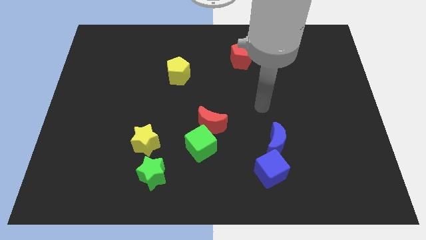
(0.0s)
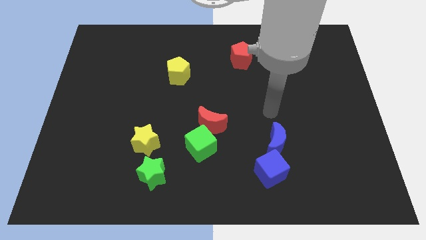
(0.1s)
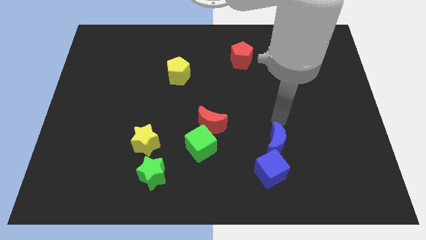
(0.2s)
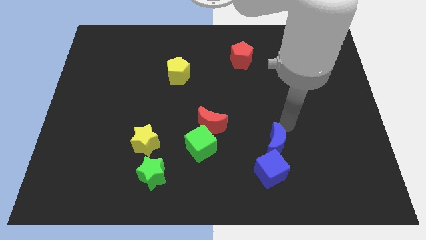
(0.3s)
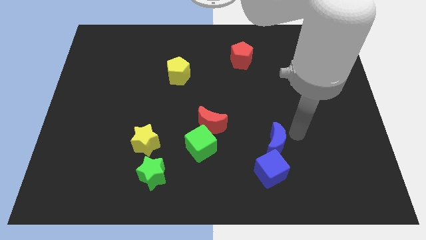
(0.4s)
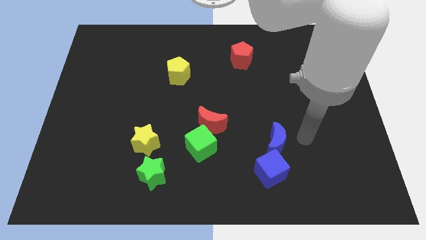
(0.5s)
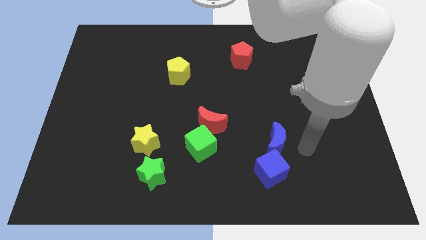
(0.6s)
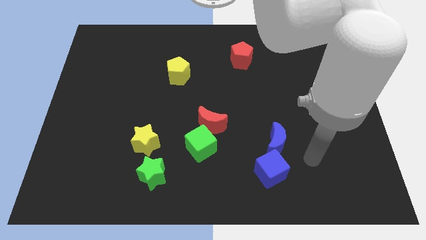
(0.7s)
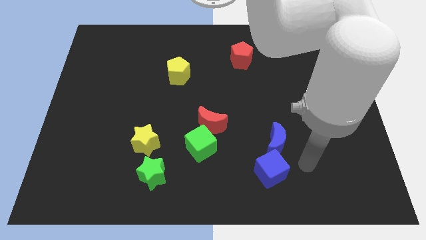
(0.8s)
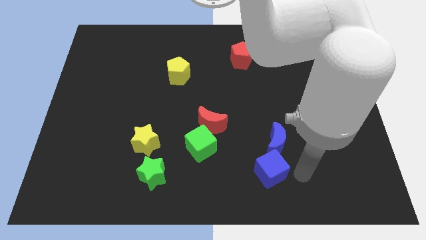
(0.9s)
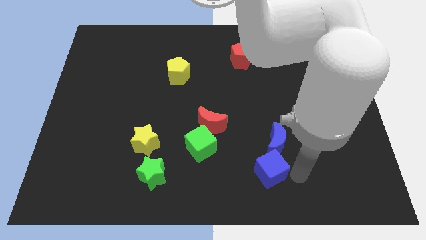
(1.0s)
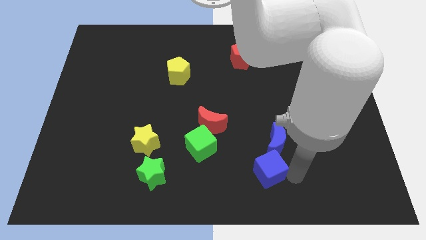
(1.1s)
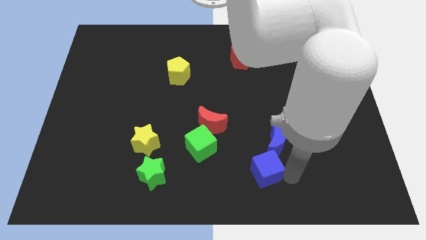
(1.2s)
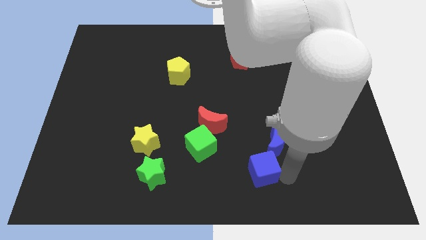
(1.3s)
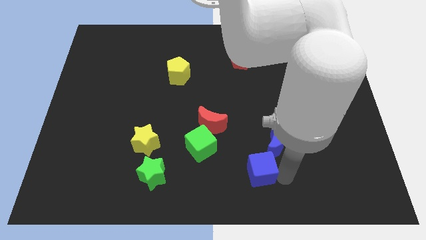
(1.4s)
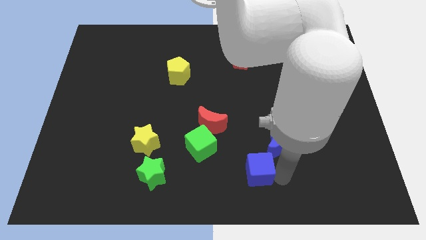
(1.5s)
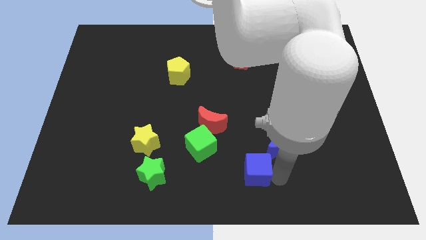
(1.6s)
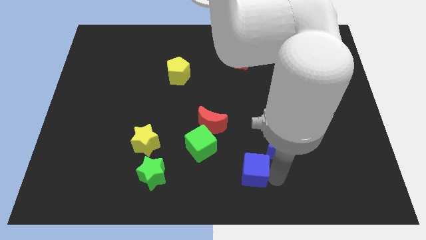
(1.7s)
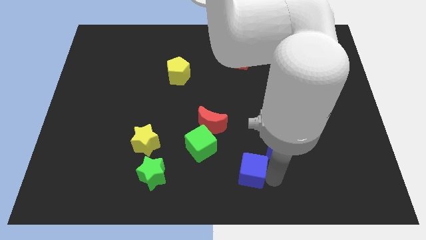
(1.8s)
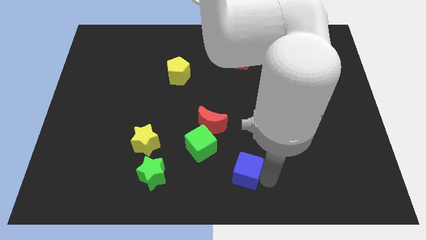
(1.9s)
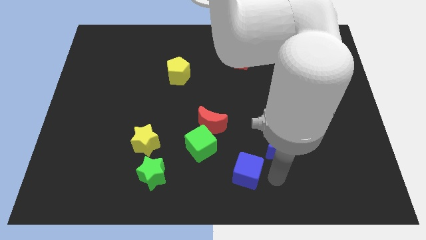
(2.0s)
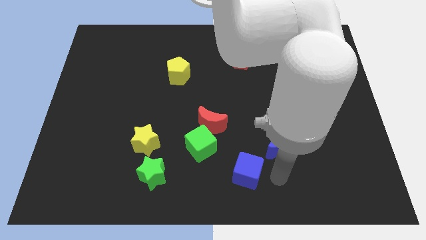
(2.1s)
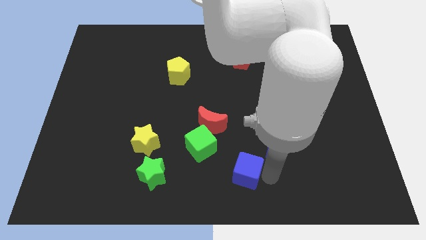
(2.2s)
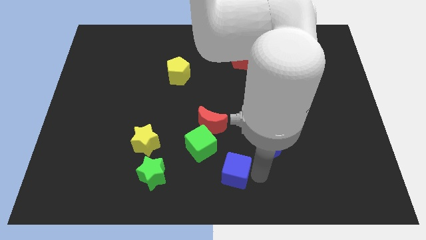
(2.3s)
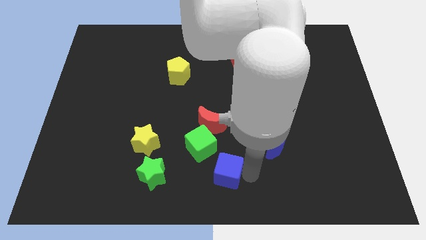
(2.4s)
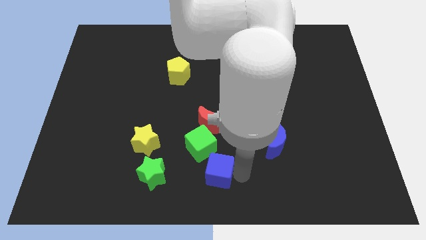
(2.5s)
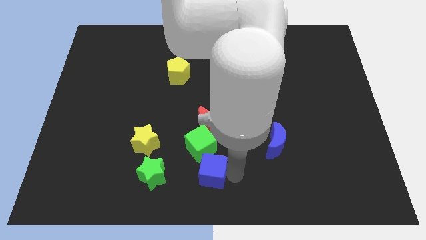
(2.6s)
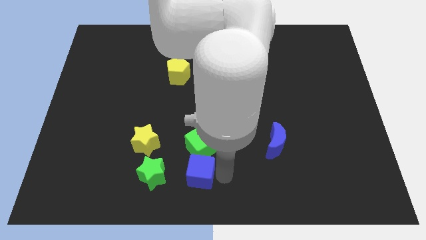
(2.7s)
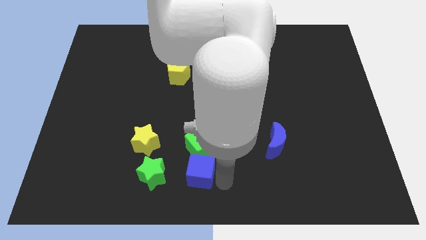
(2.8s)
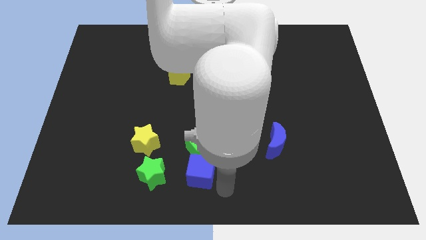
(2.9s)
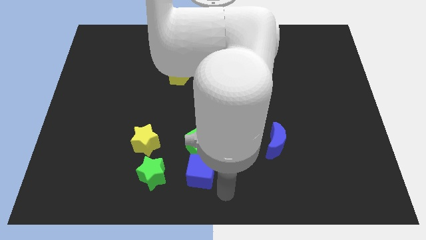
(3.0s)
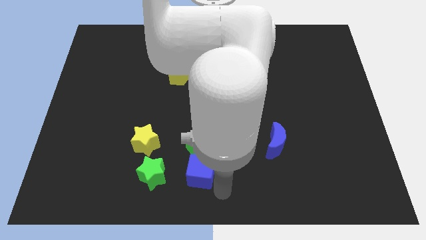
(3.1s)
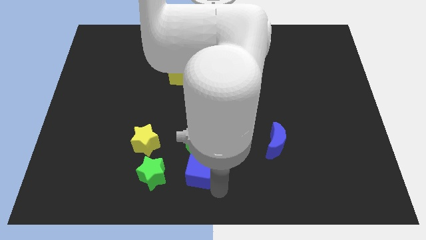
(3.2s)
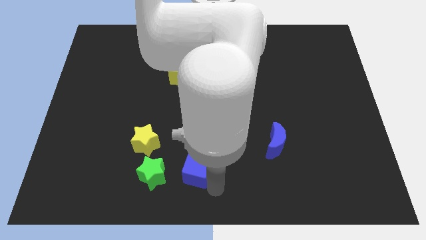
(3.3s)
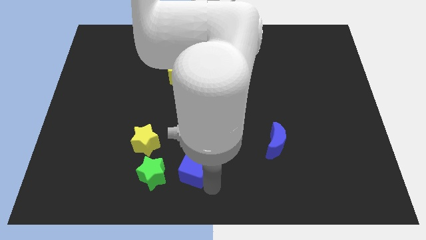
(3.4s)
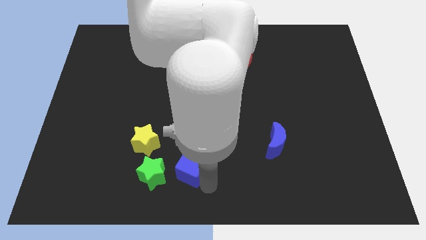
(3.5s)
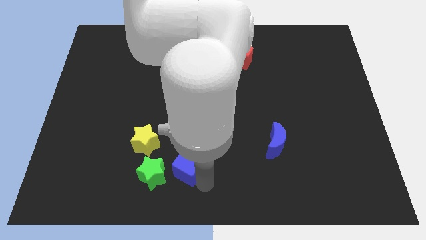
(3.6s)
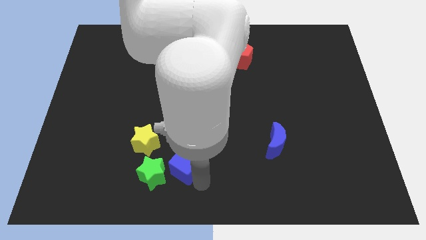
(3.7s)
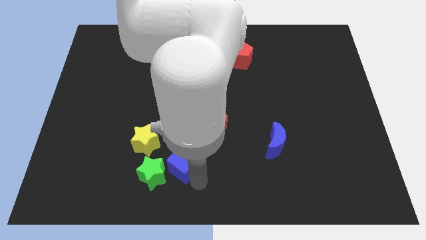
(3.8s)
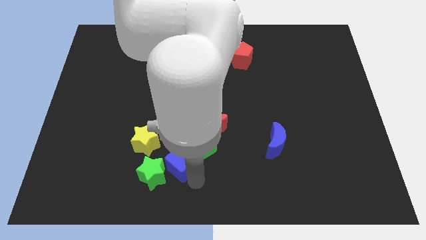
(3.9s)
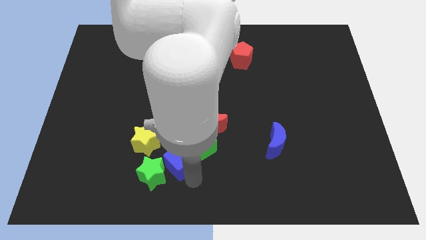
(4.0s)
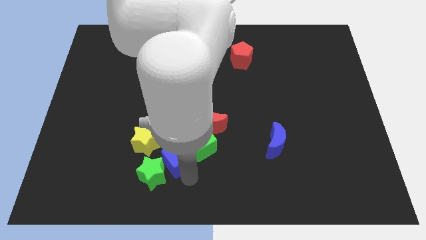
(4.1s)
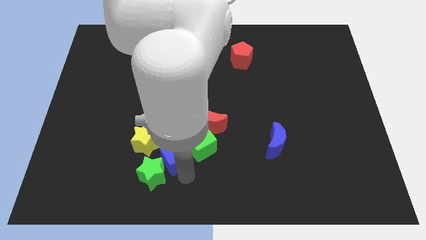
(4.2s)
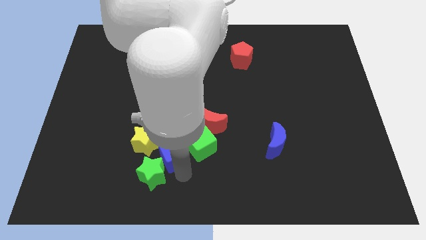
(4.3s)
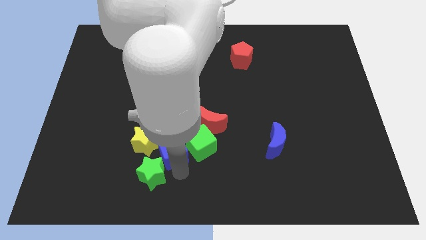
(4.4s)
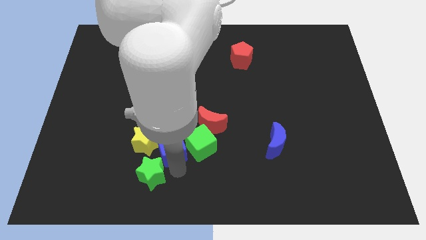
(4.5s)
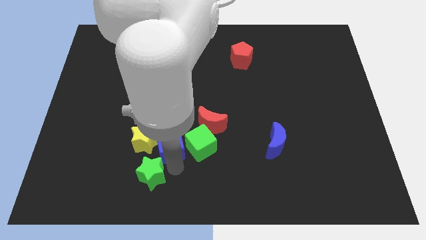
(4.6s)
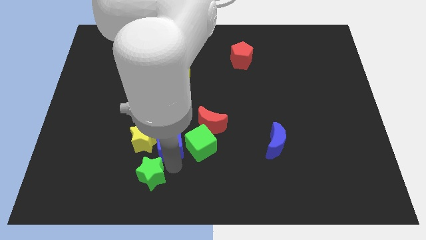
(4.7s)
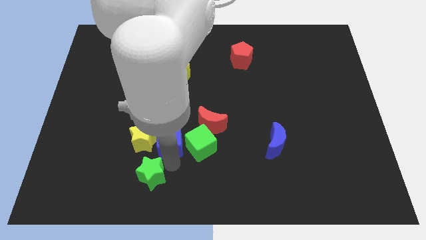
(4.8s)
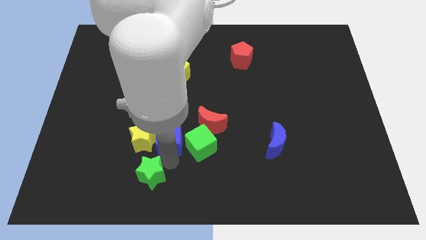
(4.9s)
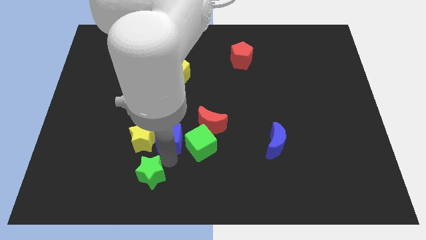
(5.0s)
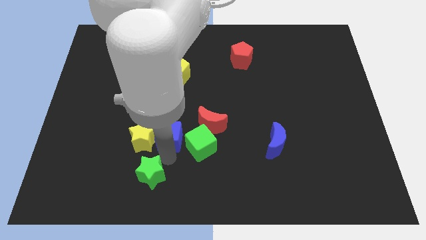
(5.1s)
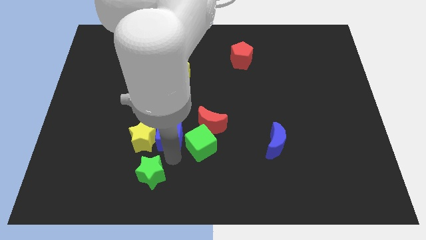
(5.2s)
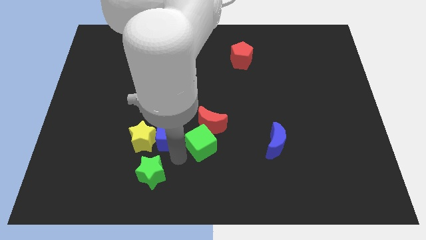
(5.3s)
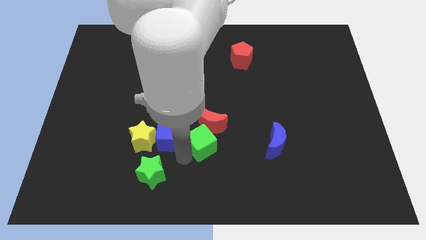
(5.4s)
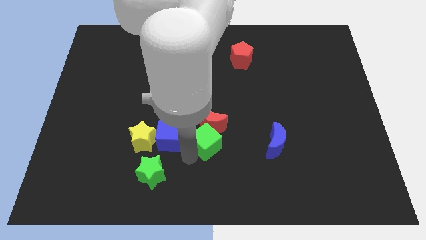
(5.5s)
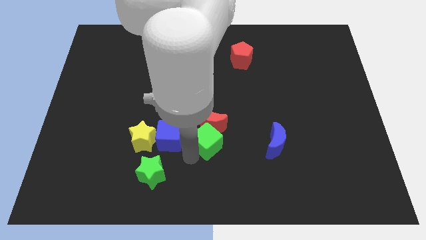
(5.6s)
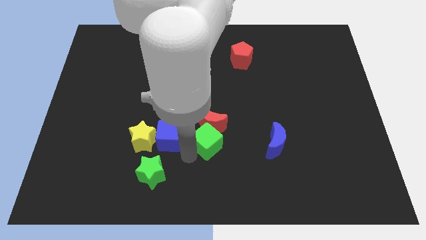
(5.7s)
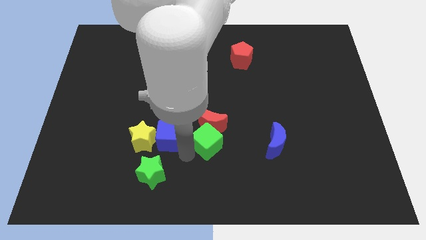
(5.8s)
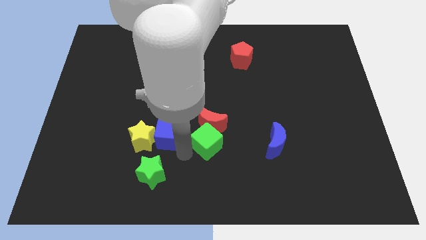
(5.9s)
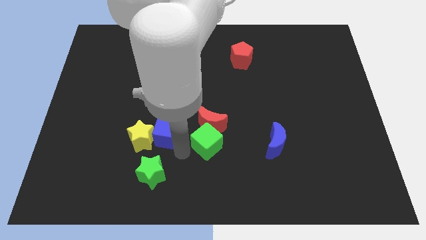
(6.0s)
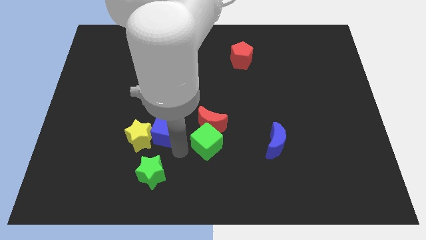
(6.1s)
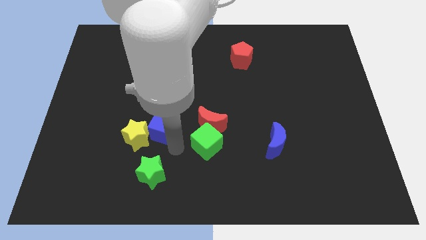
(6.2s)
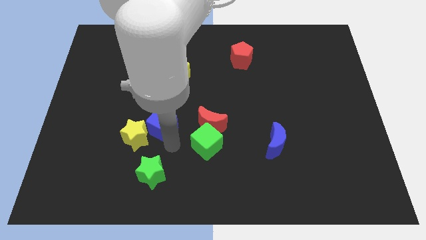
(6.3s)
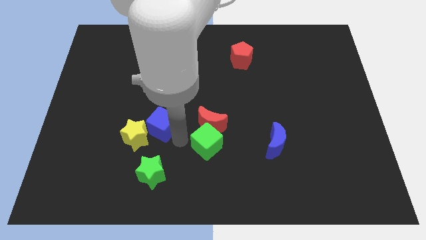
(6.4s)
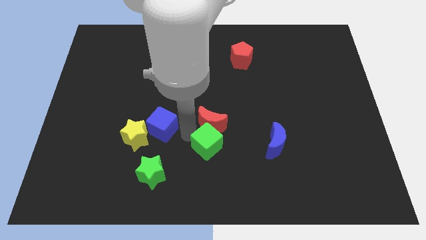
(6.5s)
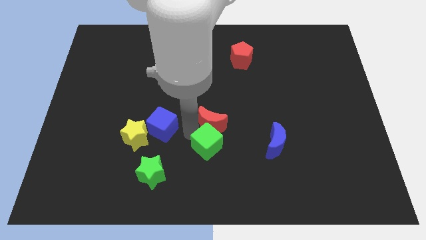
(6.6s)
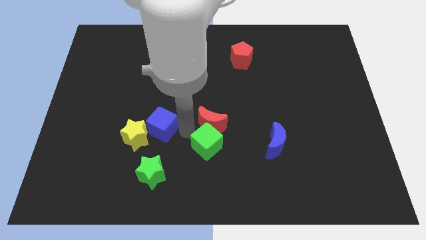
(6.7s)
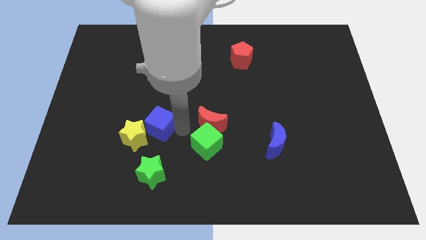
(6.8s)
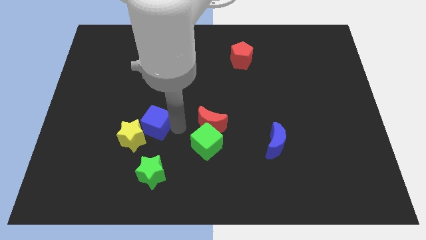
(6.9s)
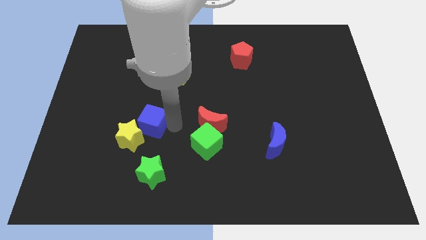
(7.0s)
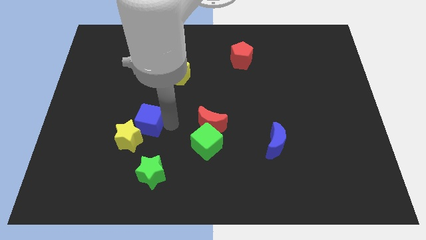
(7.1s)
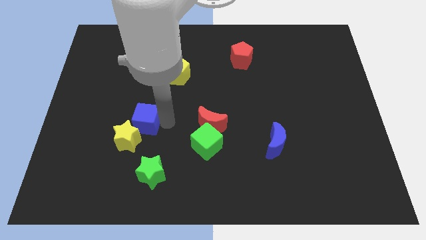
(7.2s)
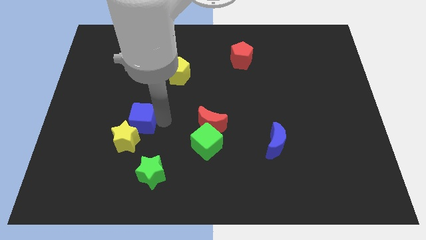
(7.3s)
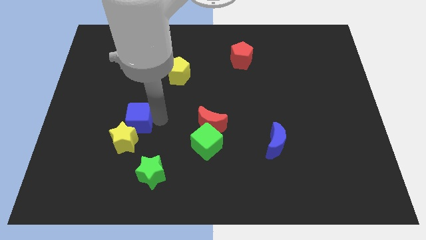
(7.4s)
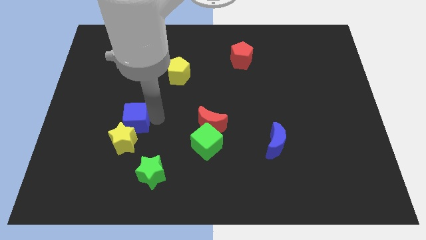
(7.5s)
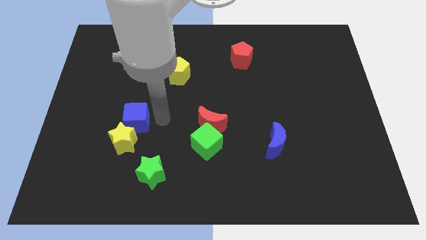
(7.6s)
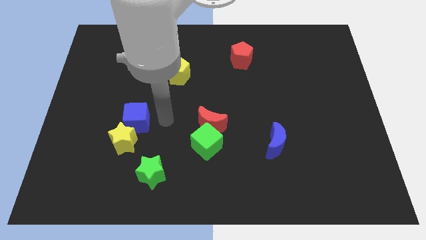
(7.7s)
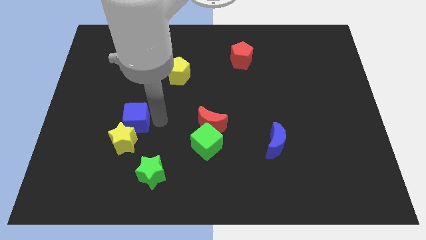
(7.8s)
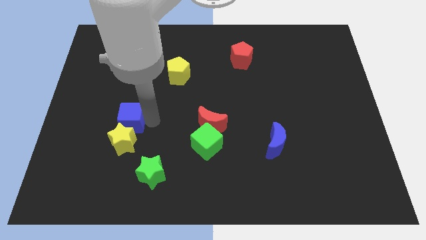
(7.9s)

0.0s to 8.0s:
move the blue cube diagonally up and to the left of the yellow star

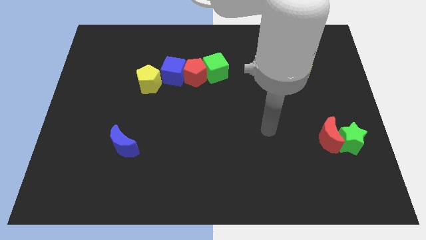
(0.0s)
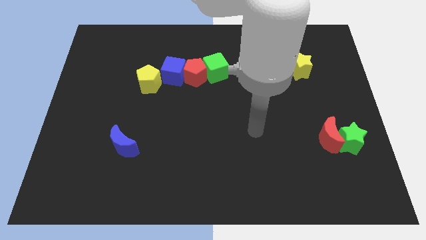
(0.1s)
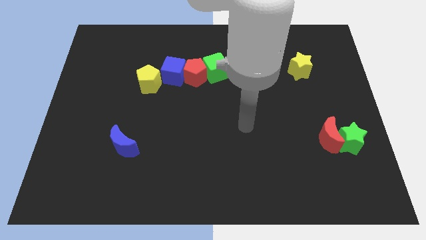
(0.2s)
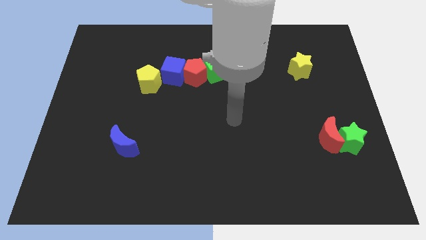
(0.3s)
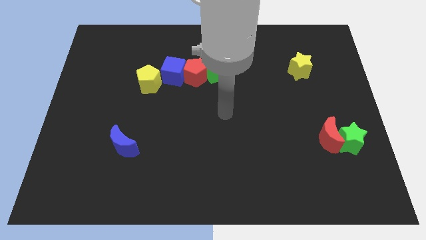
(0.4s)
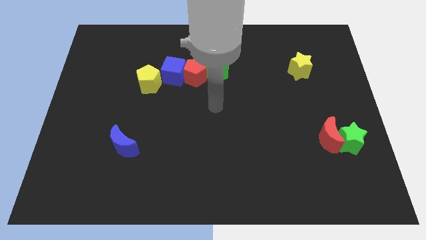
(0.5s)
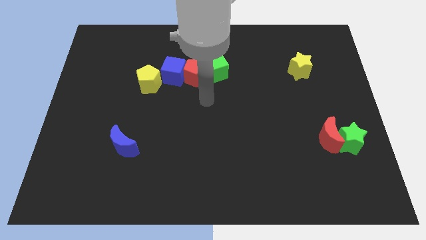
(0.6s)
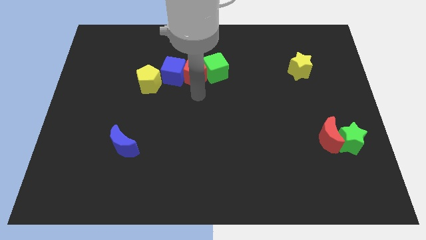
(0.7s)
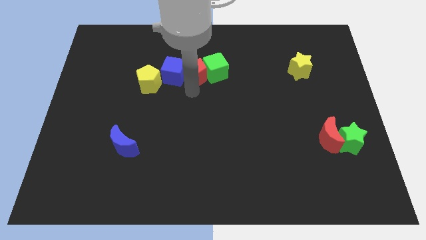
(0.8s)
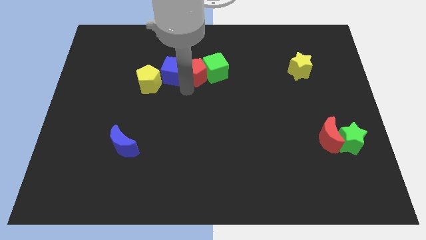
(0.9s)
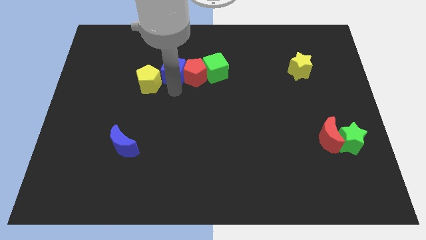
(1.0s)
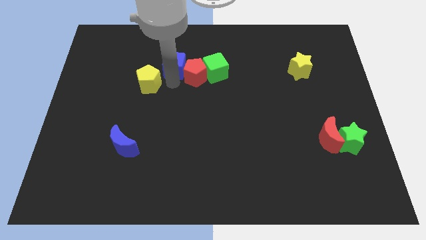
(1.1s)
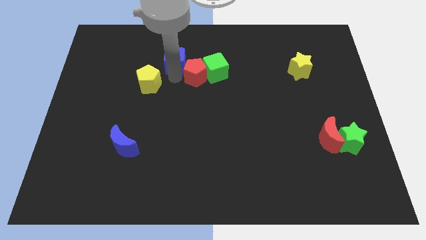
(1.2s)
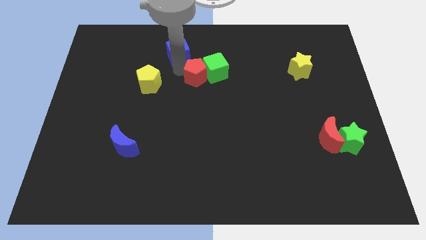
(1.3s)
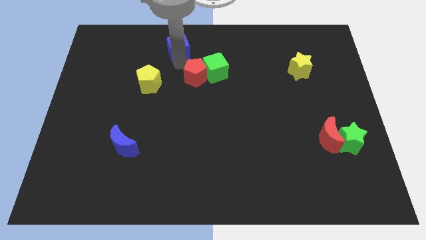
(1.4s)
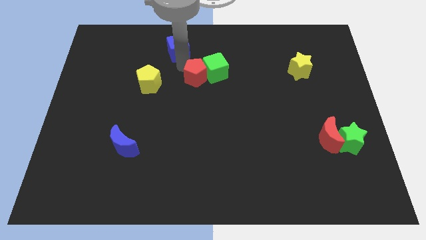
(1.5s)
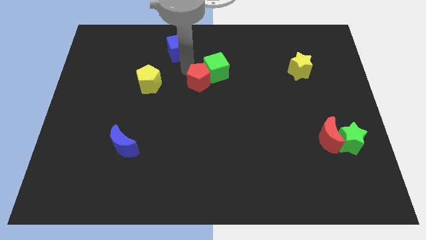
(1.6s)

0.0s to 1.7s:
push the red pentagon to the bottom side of the green cube
